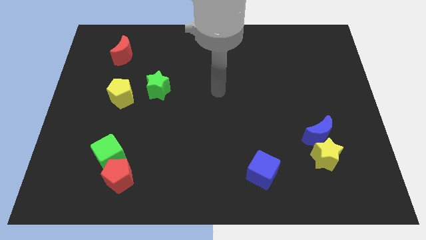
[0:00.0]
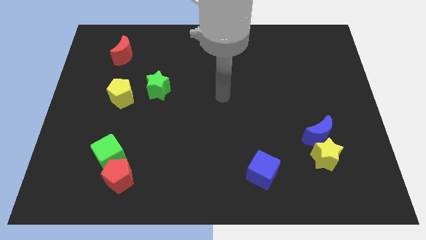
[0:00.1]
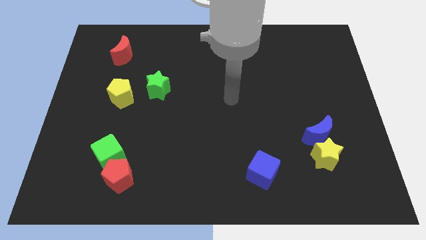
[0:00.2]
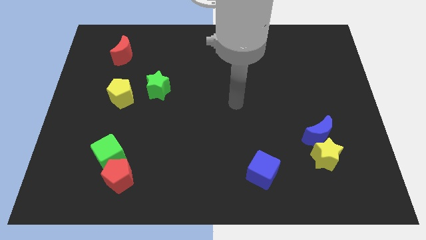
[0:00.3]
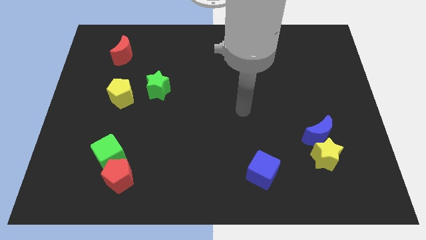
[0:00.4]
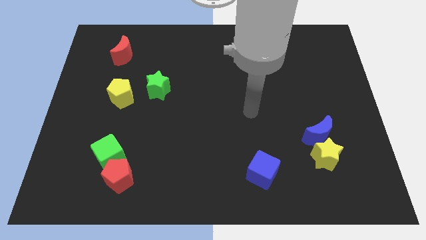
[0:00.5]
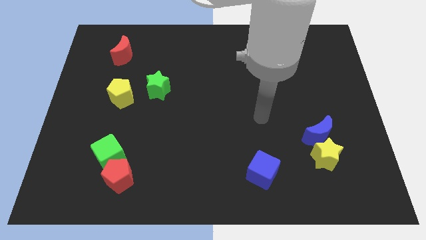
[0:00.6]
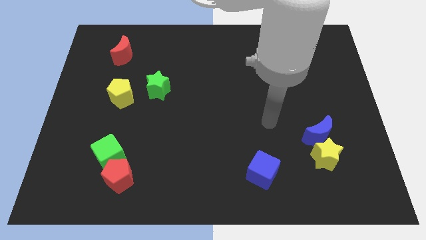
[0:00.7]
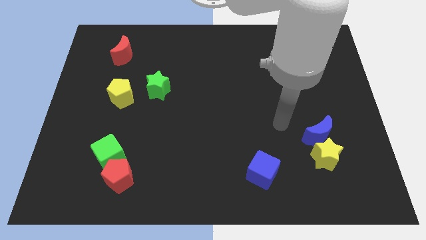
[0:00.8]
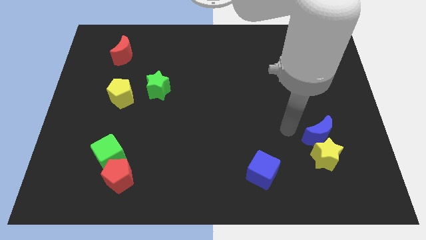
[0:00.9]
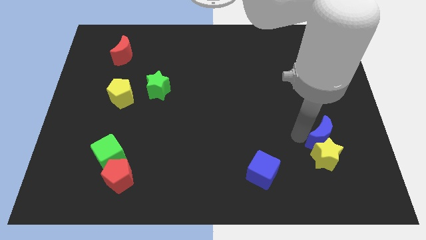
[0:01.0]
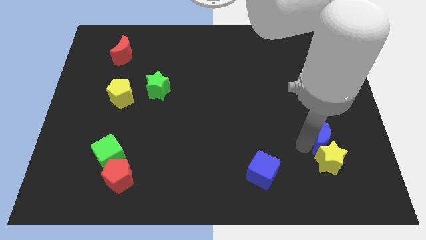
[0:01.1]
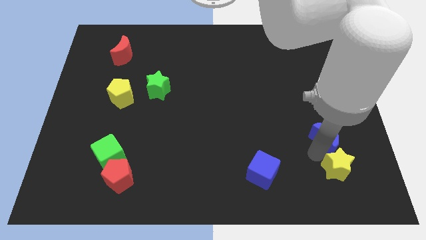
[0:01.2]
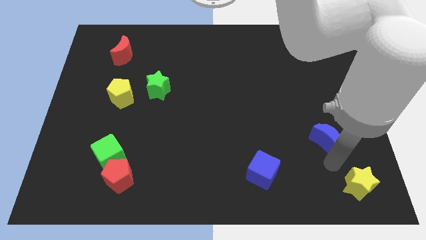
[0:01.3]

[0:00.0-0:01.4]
move the blue moon away from the yellow star

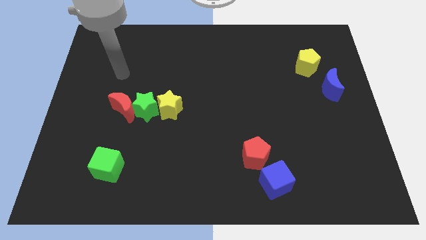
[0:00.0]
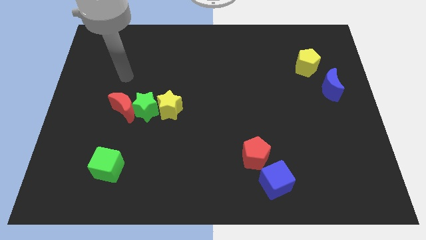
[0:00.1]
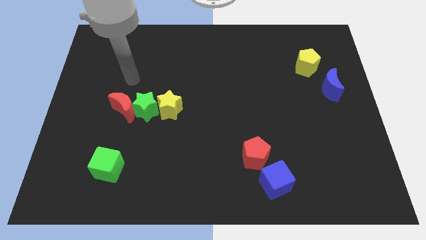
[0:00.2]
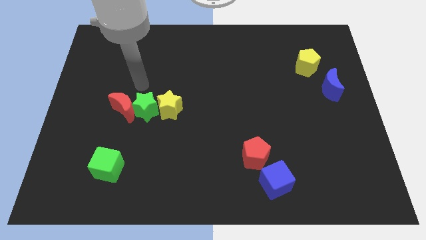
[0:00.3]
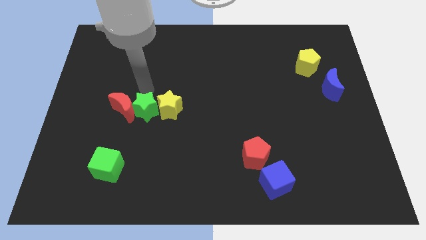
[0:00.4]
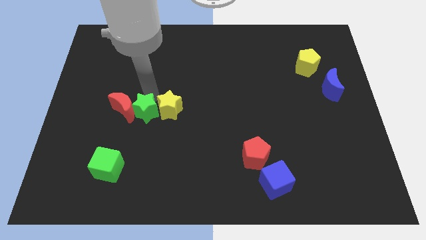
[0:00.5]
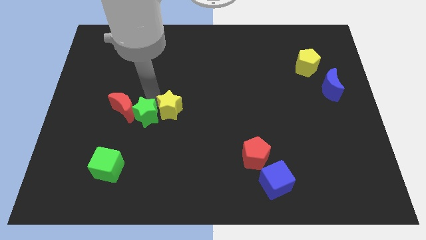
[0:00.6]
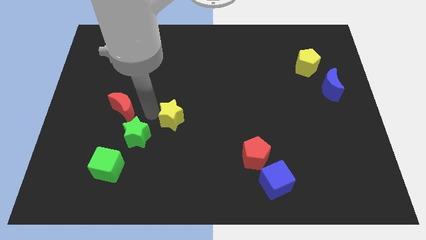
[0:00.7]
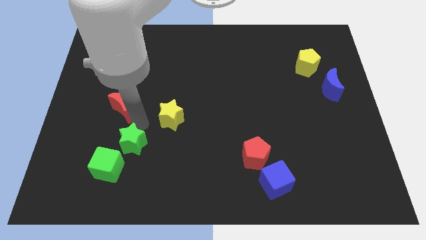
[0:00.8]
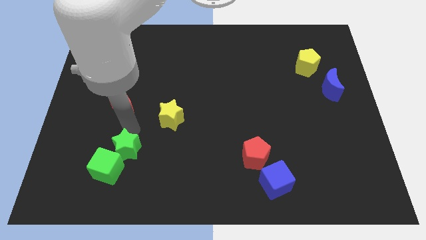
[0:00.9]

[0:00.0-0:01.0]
separate the red moon from the green star

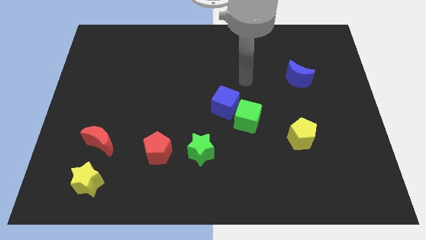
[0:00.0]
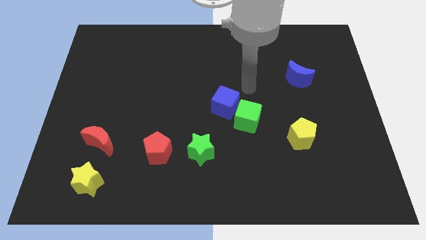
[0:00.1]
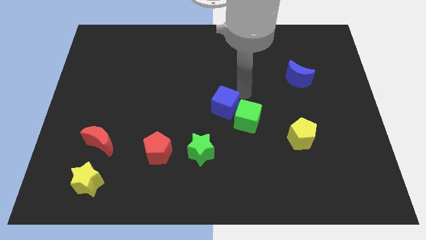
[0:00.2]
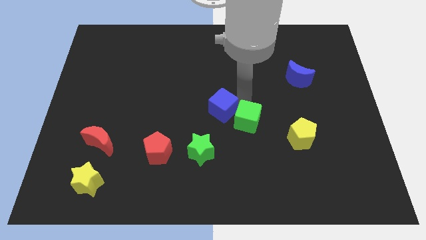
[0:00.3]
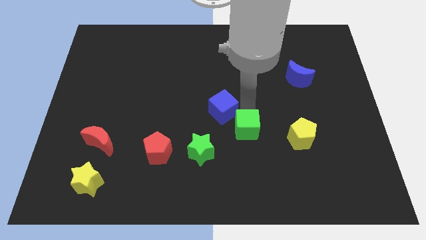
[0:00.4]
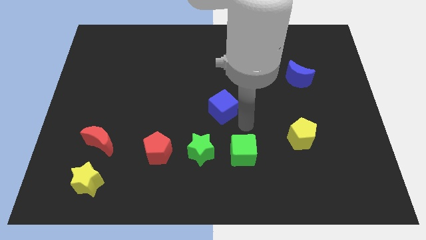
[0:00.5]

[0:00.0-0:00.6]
separate the blue cube from the green cube

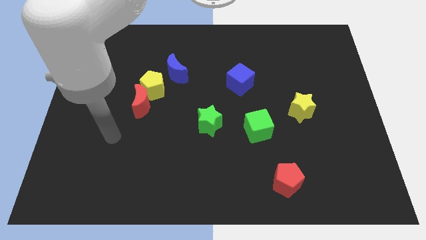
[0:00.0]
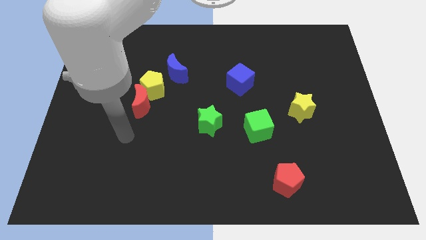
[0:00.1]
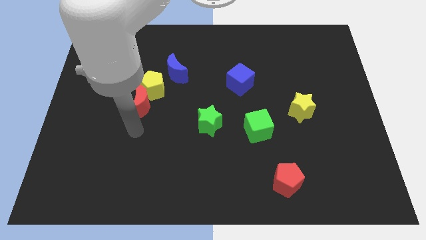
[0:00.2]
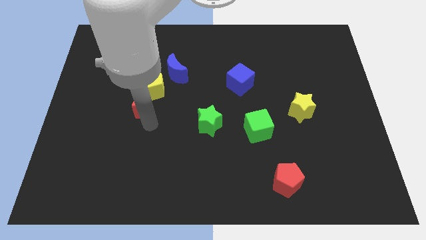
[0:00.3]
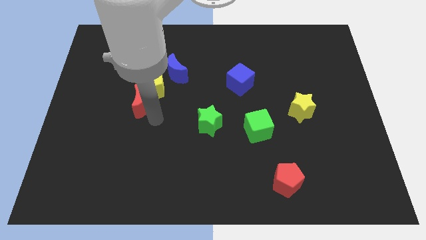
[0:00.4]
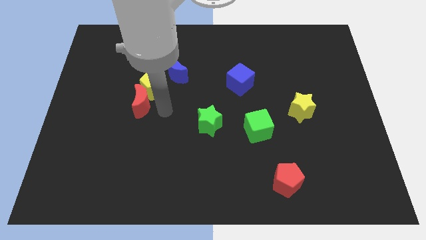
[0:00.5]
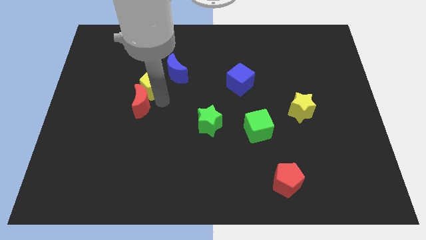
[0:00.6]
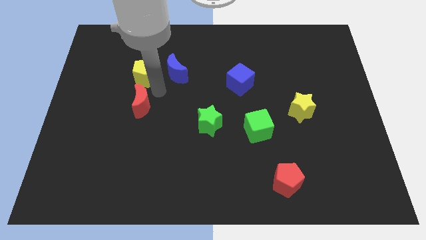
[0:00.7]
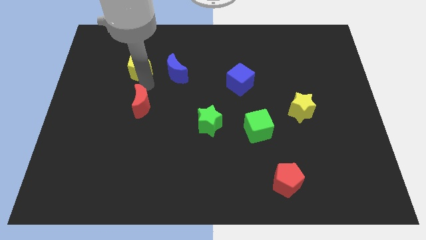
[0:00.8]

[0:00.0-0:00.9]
pull the red moon apart from the yellow pentagon

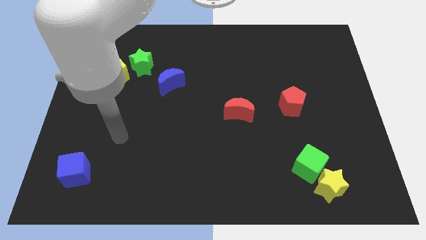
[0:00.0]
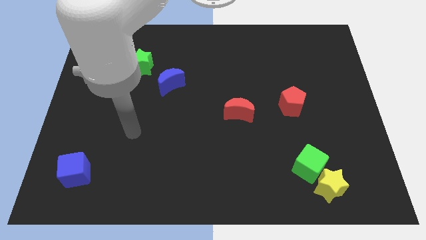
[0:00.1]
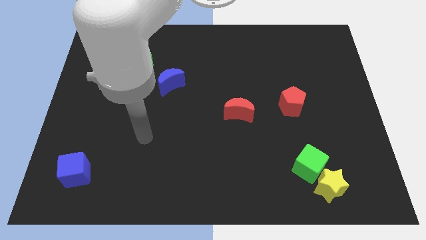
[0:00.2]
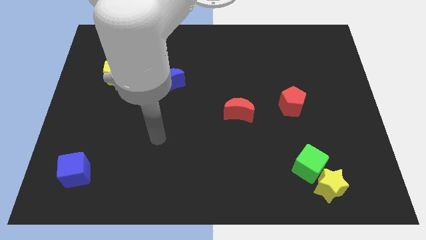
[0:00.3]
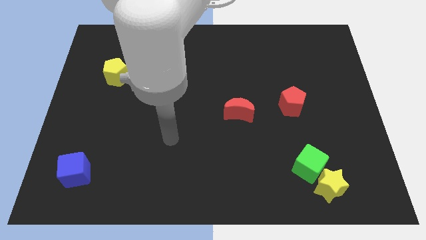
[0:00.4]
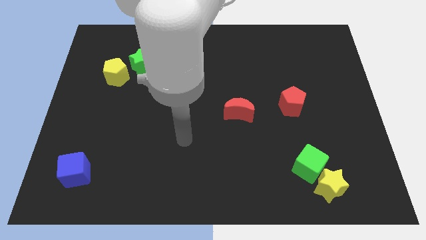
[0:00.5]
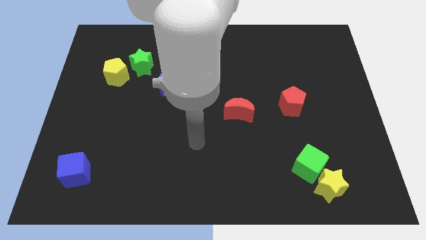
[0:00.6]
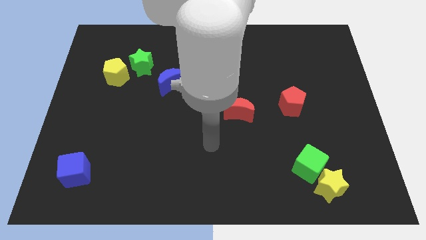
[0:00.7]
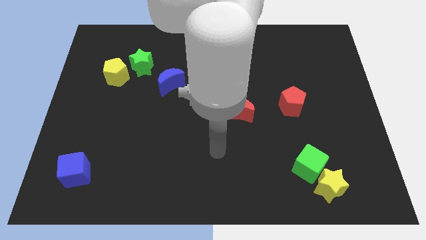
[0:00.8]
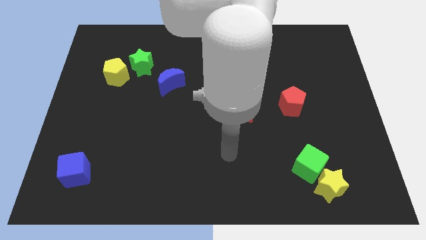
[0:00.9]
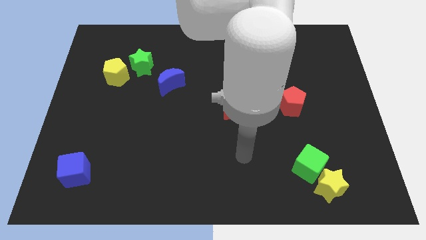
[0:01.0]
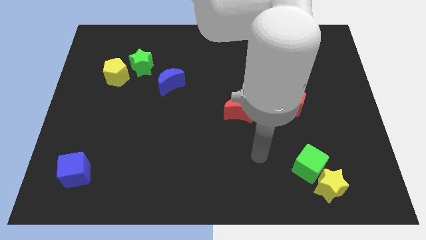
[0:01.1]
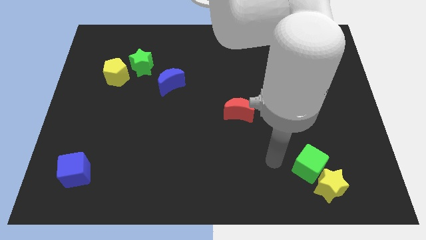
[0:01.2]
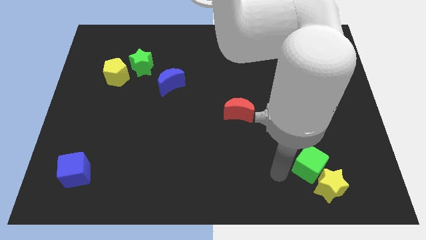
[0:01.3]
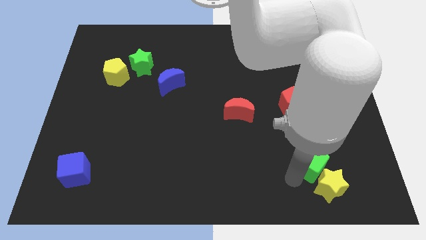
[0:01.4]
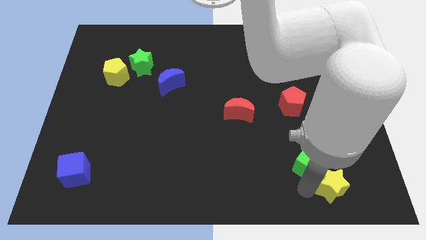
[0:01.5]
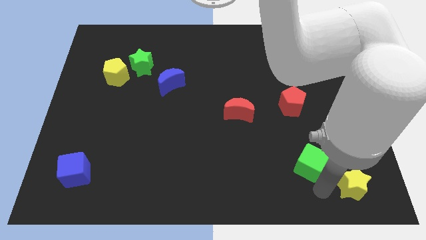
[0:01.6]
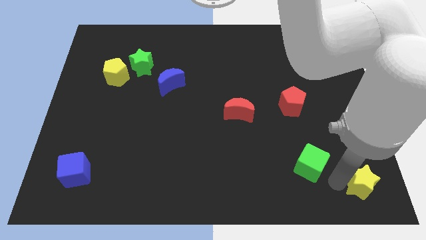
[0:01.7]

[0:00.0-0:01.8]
move the green cube away from the yellow star

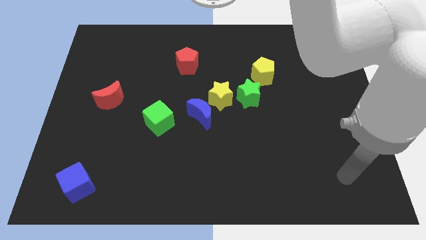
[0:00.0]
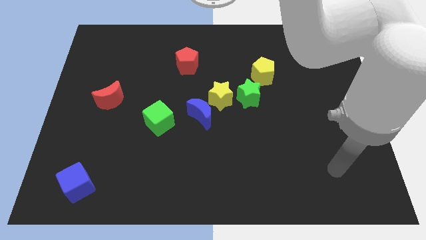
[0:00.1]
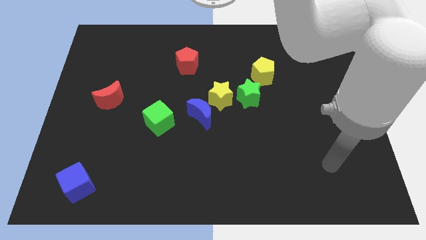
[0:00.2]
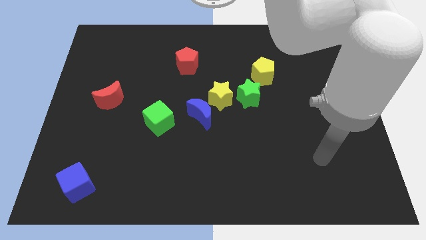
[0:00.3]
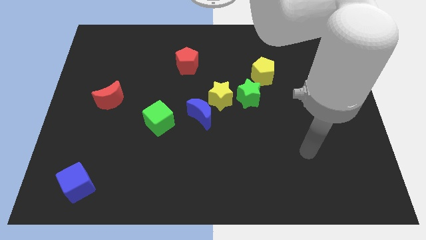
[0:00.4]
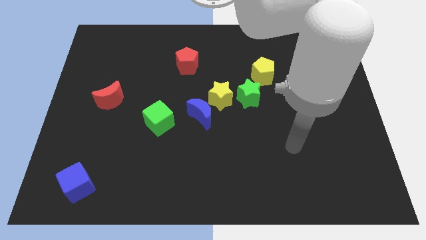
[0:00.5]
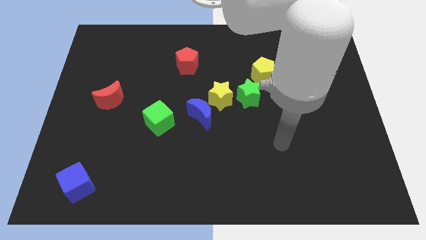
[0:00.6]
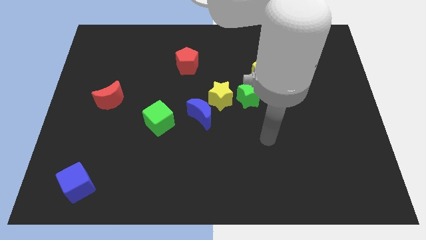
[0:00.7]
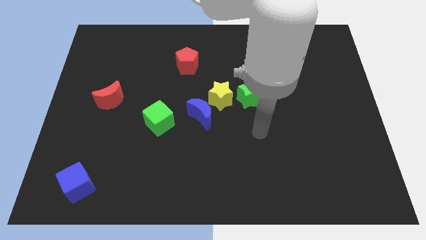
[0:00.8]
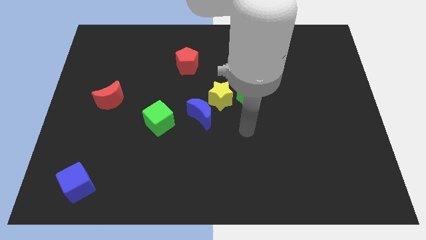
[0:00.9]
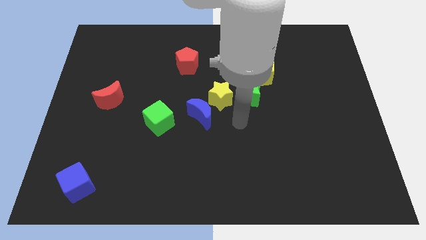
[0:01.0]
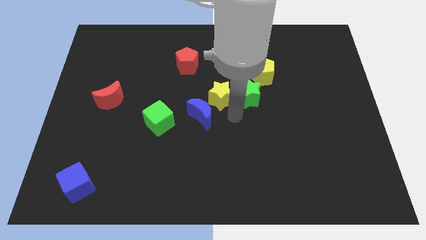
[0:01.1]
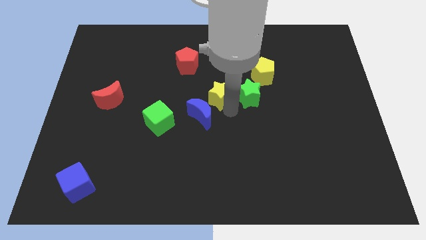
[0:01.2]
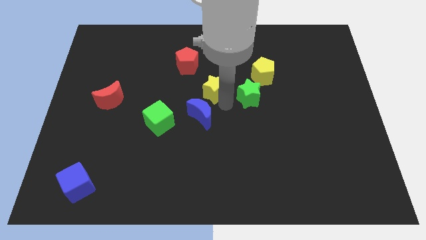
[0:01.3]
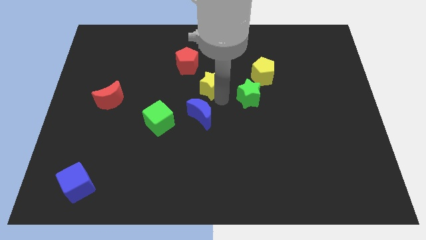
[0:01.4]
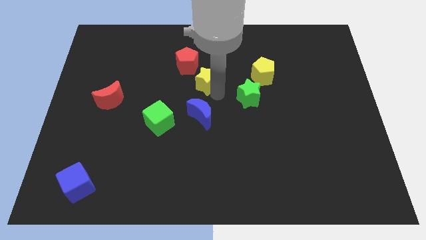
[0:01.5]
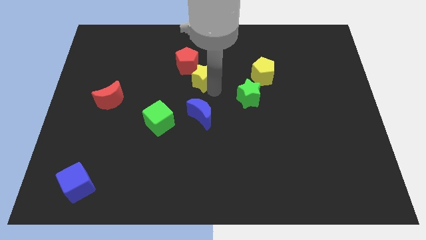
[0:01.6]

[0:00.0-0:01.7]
separate the yellow star from the blue moon and green star

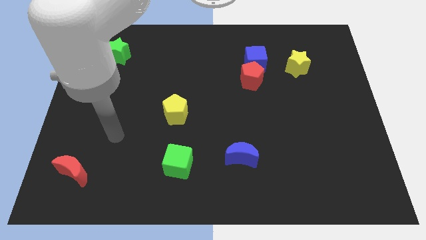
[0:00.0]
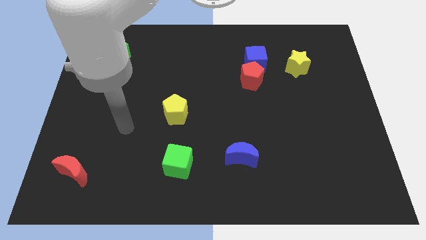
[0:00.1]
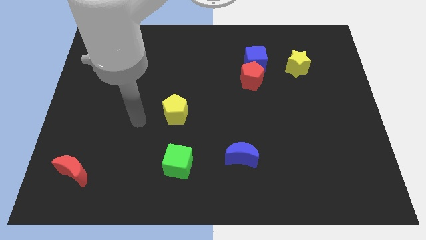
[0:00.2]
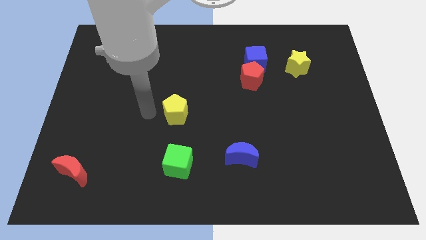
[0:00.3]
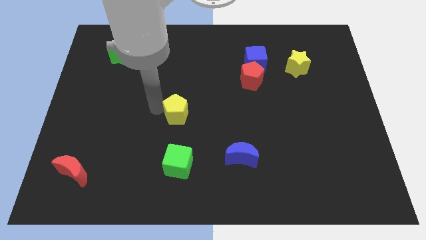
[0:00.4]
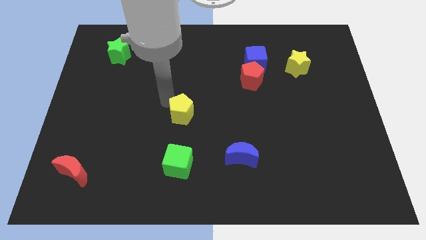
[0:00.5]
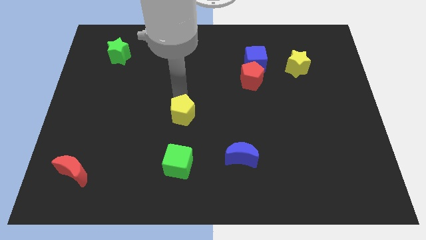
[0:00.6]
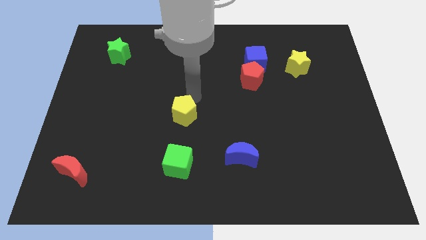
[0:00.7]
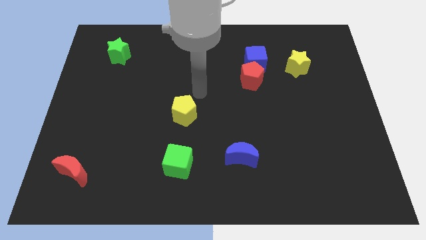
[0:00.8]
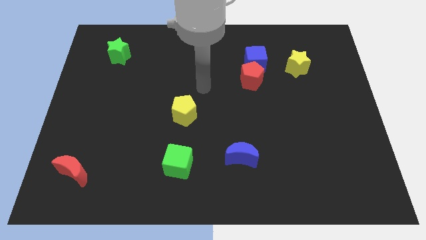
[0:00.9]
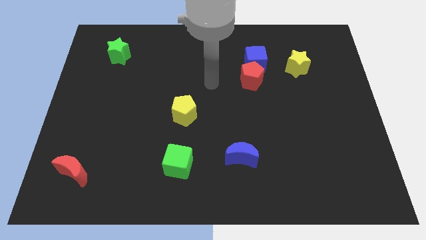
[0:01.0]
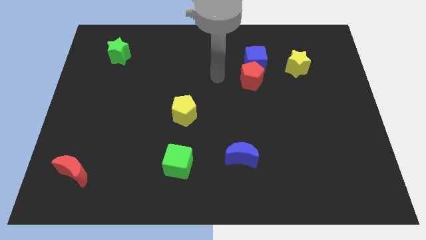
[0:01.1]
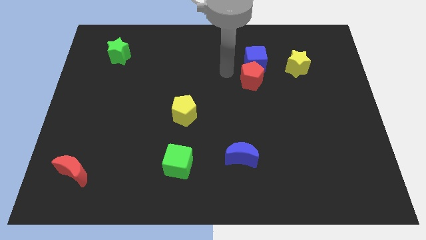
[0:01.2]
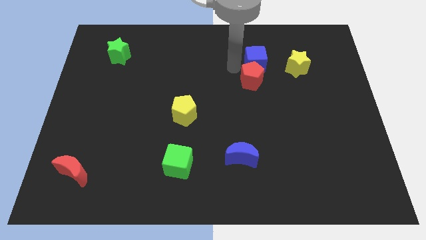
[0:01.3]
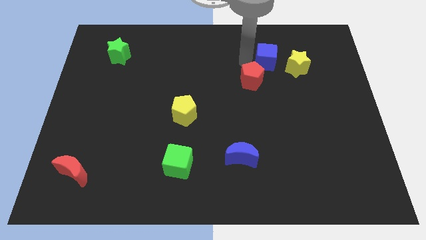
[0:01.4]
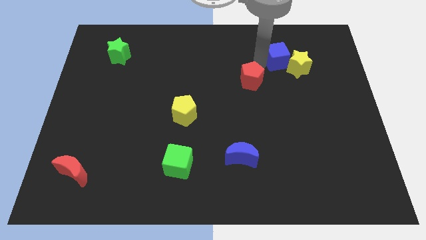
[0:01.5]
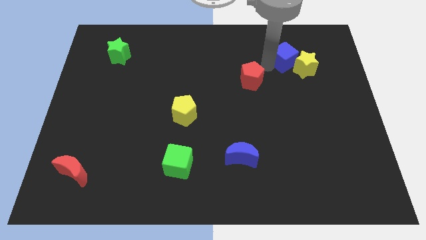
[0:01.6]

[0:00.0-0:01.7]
move the red pentagon away from the blue cube

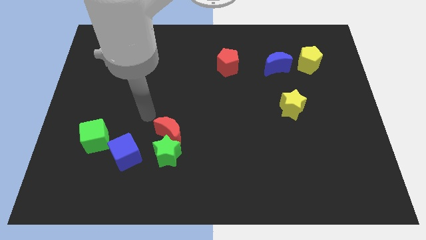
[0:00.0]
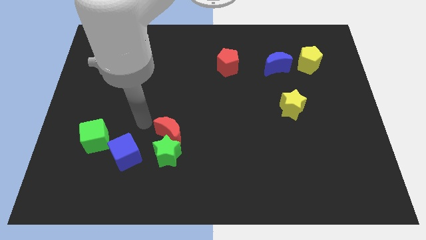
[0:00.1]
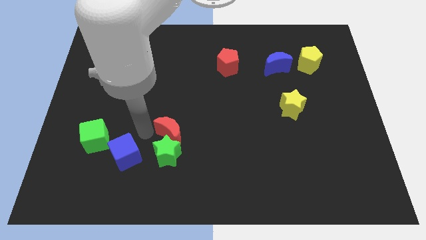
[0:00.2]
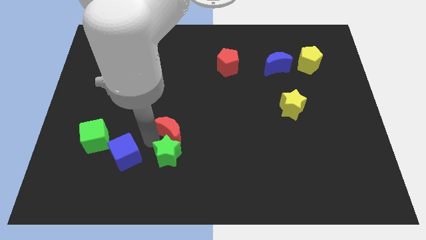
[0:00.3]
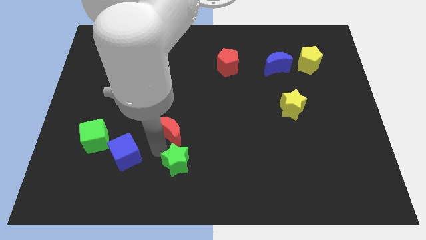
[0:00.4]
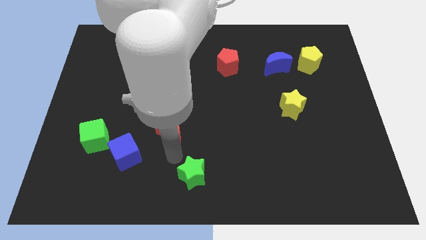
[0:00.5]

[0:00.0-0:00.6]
move the red moon away from the green star
